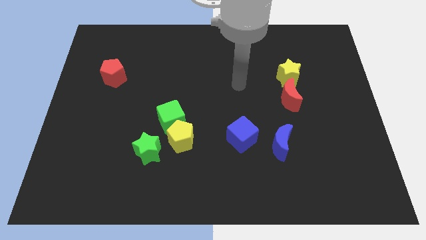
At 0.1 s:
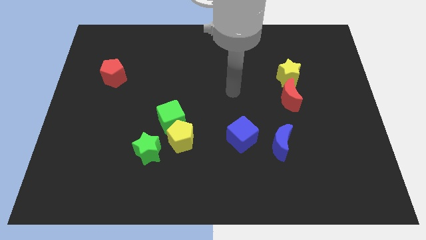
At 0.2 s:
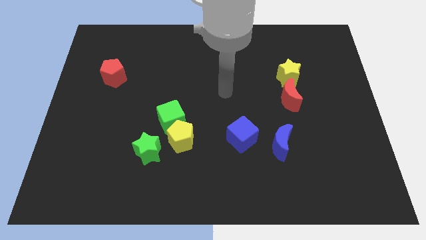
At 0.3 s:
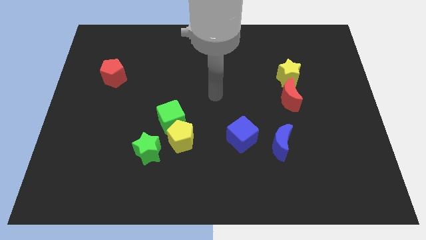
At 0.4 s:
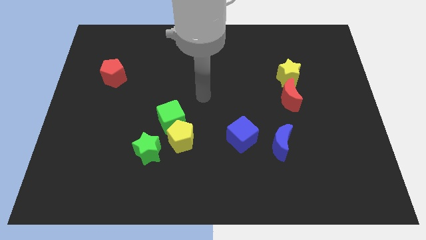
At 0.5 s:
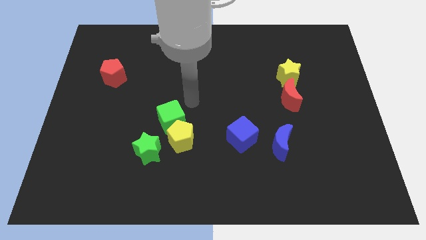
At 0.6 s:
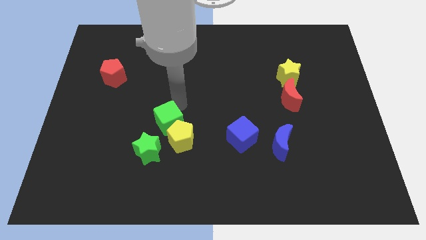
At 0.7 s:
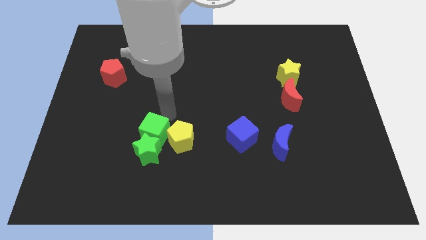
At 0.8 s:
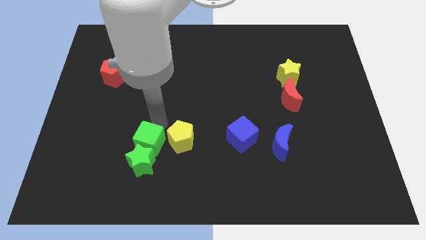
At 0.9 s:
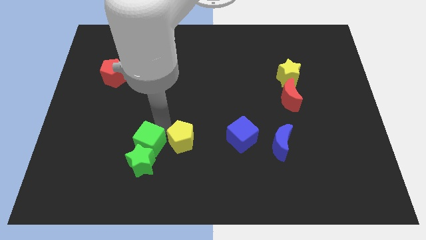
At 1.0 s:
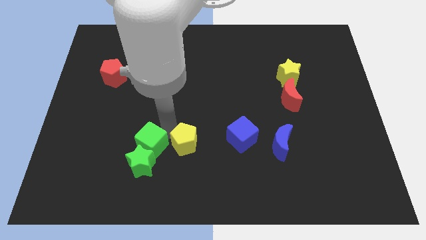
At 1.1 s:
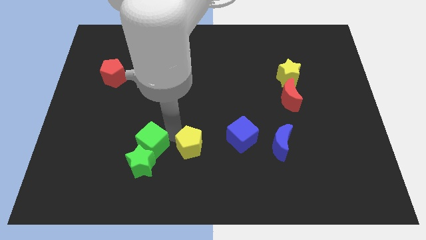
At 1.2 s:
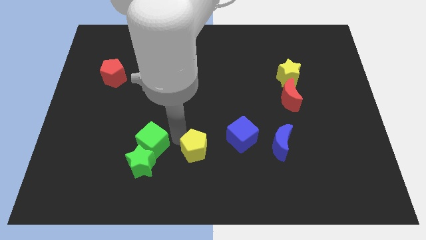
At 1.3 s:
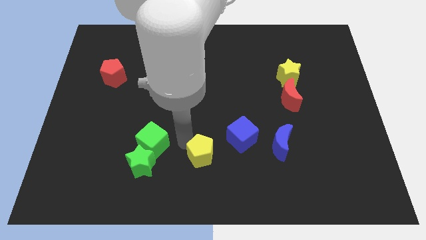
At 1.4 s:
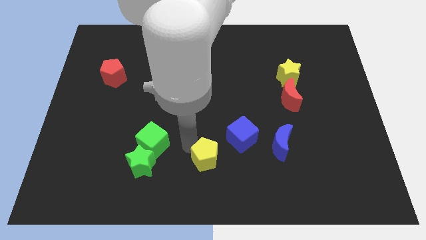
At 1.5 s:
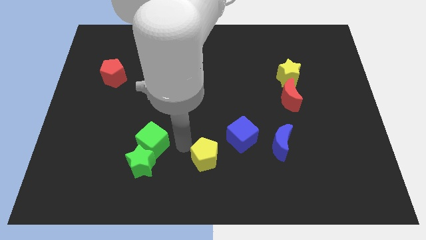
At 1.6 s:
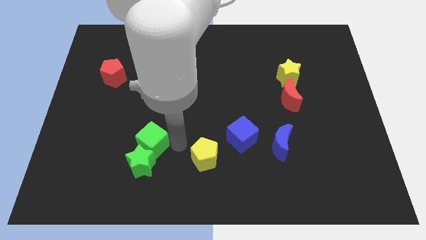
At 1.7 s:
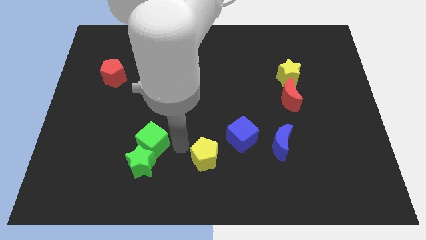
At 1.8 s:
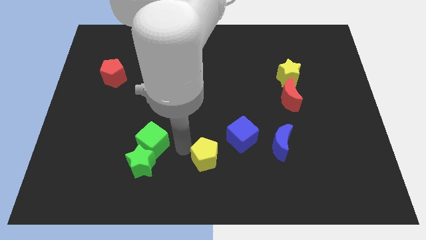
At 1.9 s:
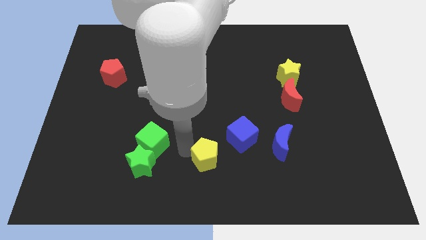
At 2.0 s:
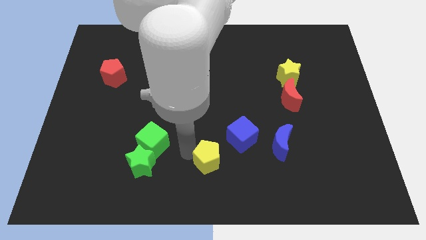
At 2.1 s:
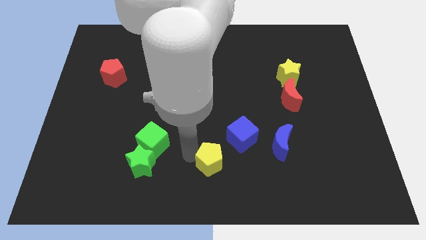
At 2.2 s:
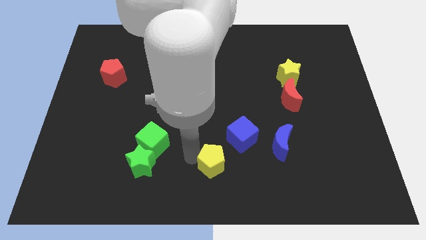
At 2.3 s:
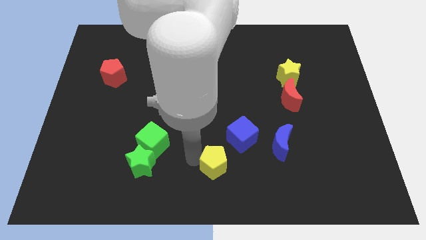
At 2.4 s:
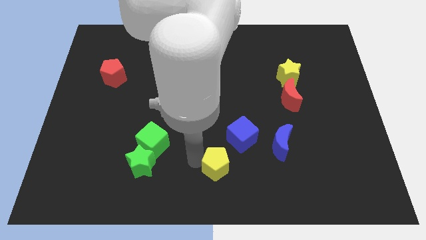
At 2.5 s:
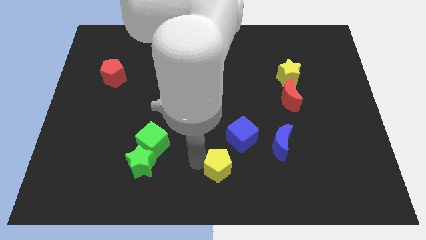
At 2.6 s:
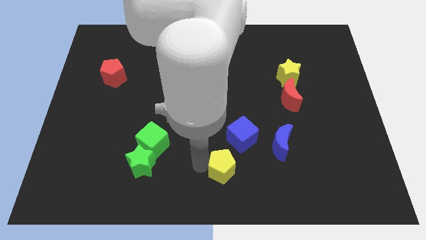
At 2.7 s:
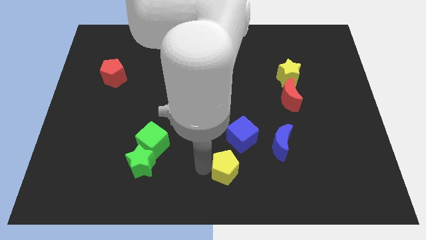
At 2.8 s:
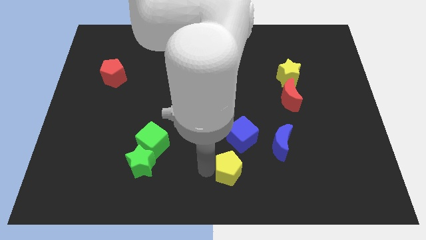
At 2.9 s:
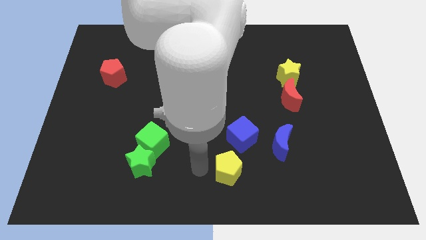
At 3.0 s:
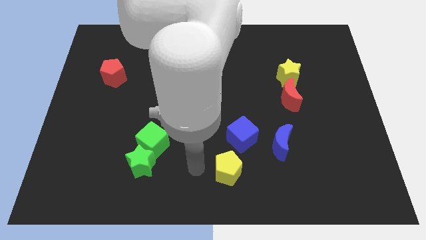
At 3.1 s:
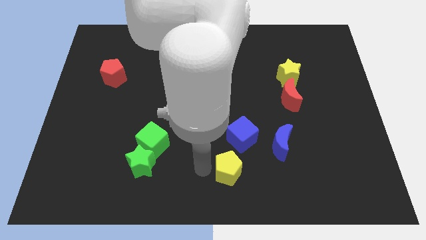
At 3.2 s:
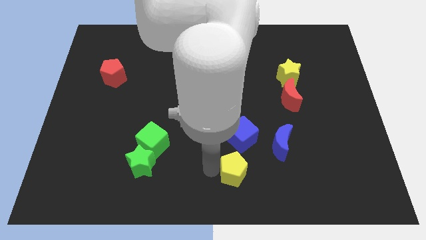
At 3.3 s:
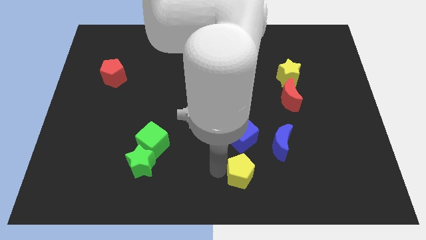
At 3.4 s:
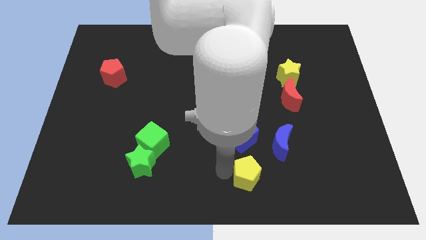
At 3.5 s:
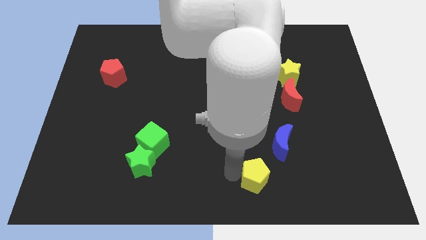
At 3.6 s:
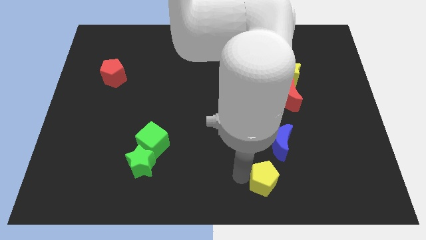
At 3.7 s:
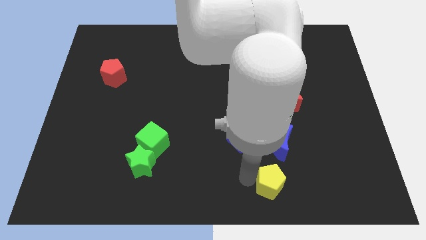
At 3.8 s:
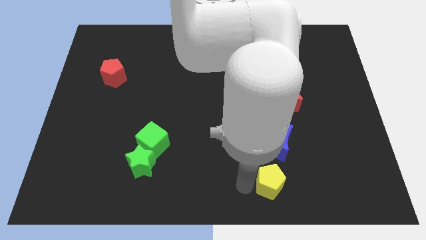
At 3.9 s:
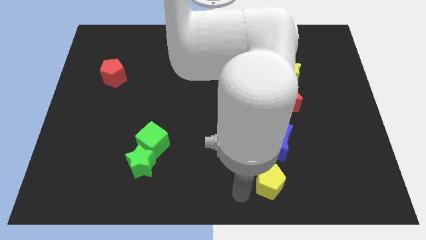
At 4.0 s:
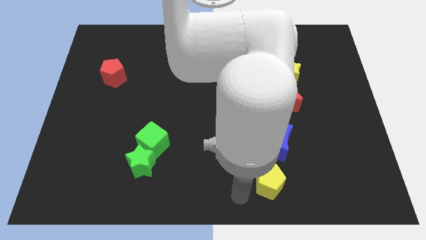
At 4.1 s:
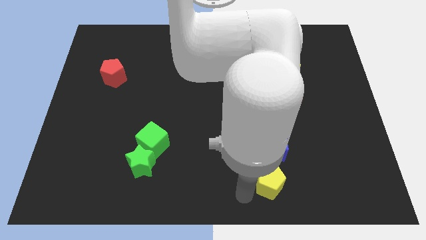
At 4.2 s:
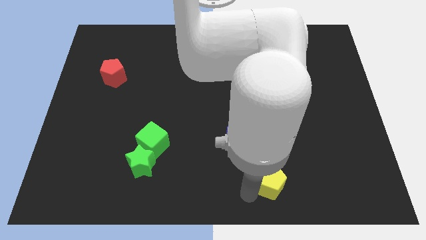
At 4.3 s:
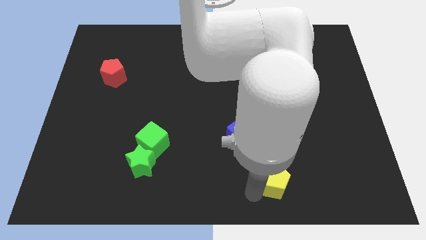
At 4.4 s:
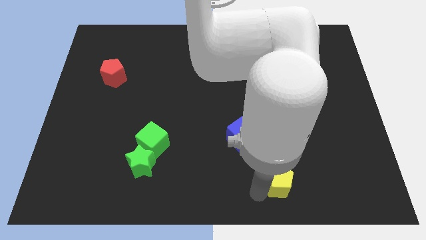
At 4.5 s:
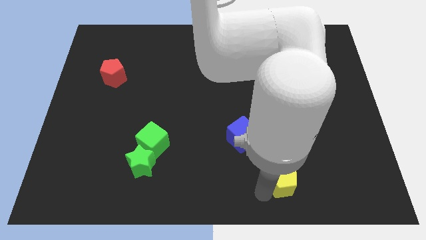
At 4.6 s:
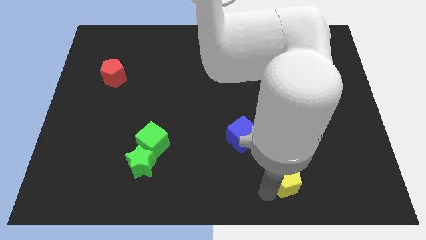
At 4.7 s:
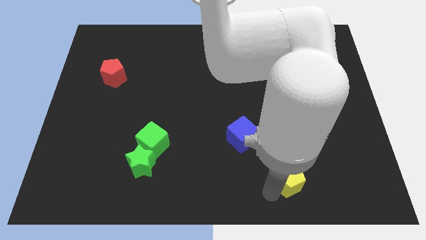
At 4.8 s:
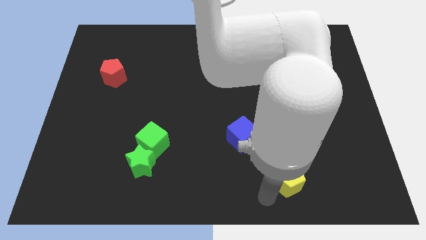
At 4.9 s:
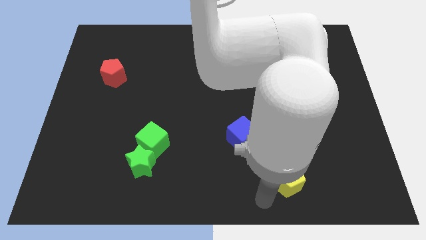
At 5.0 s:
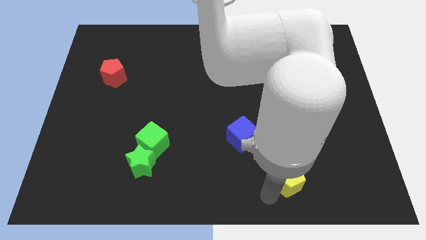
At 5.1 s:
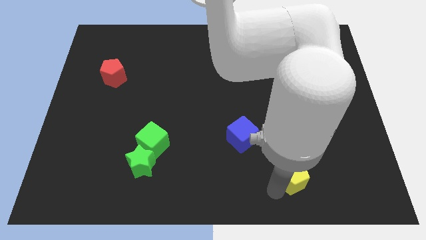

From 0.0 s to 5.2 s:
put the yellow pentagon to the bottom right of the blue moon

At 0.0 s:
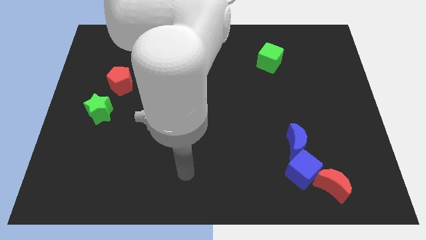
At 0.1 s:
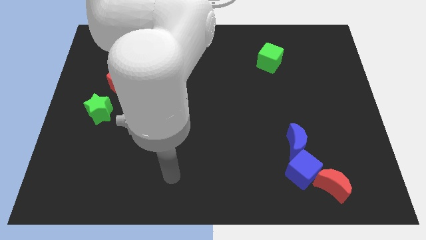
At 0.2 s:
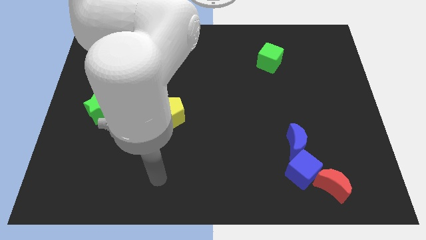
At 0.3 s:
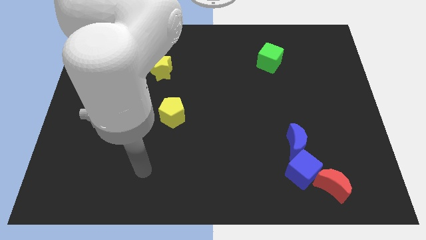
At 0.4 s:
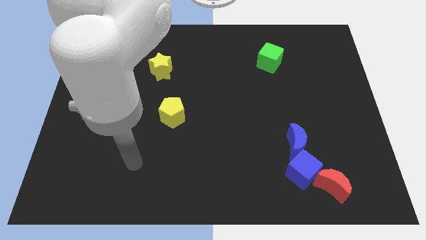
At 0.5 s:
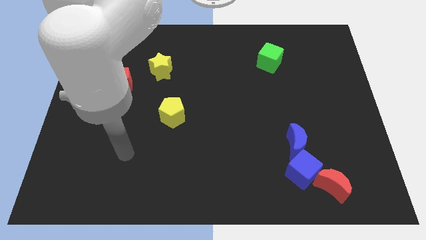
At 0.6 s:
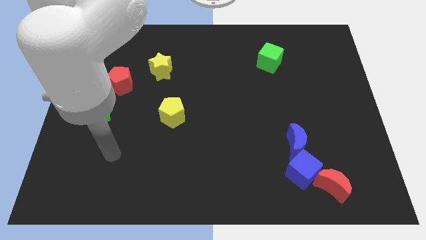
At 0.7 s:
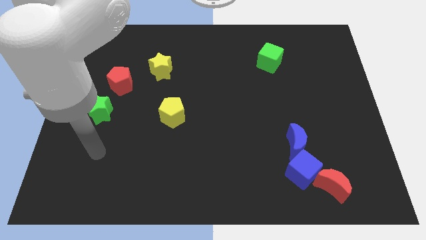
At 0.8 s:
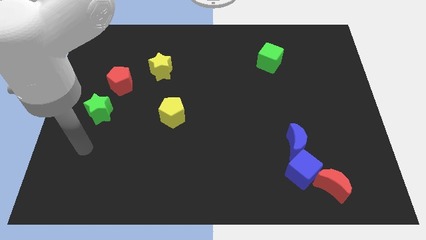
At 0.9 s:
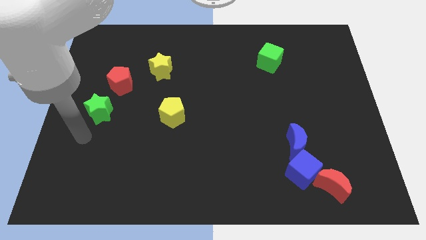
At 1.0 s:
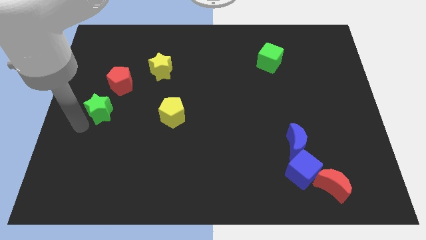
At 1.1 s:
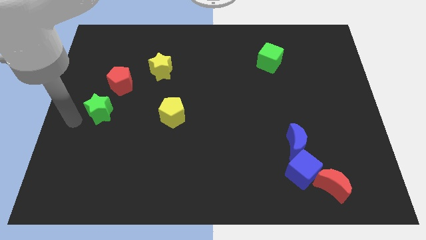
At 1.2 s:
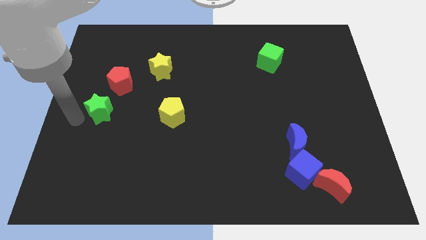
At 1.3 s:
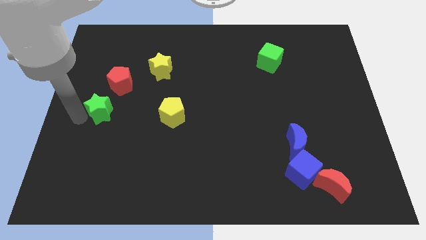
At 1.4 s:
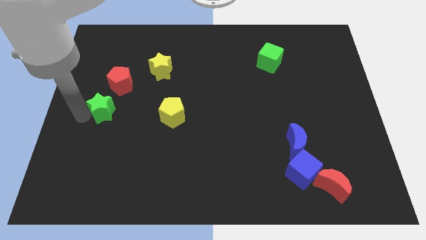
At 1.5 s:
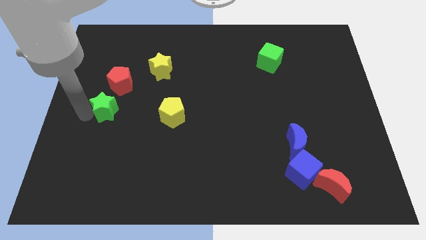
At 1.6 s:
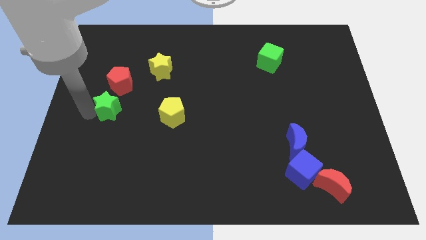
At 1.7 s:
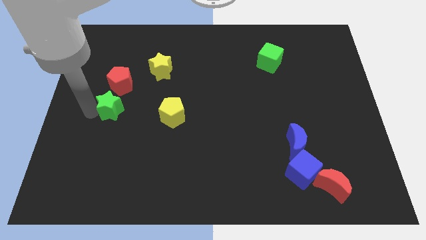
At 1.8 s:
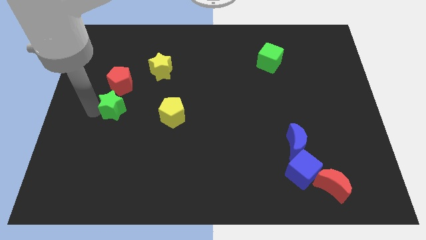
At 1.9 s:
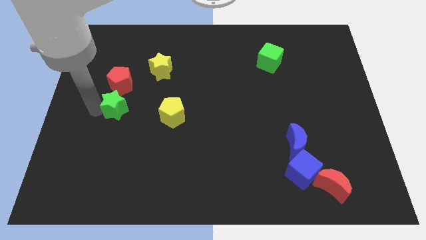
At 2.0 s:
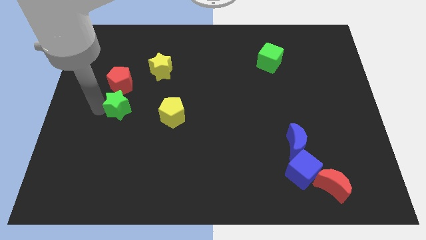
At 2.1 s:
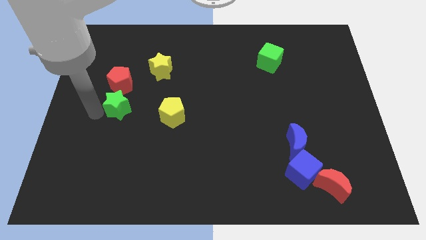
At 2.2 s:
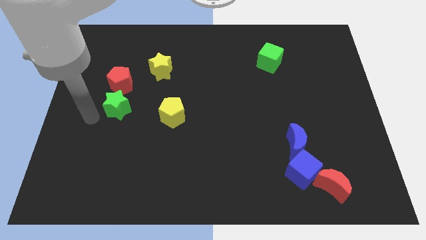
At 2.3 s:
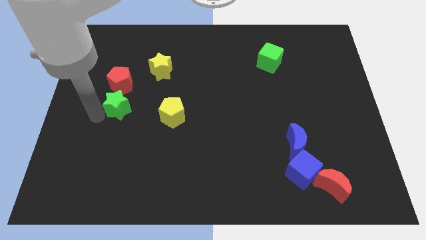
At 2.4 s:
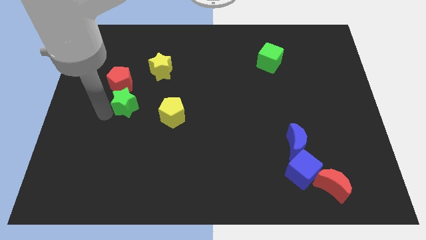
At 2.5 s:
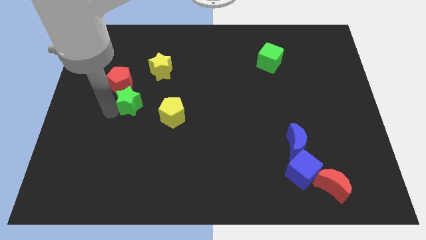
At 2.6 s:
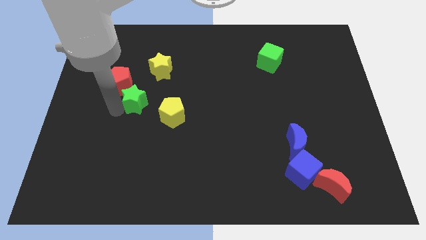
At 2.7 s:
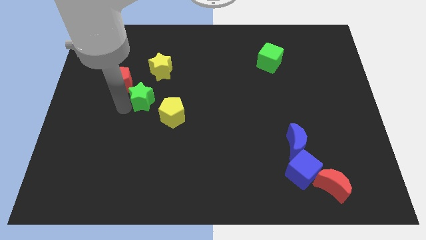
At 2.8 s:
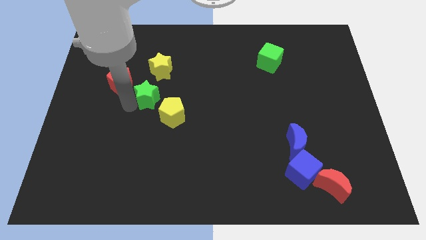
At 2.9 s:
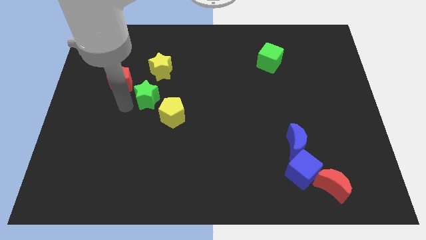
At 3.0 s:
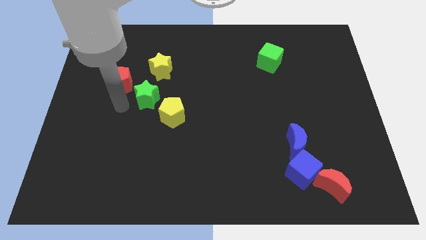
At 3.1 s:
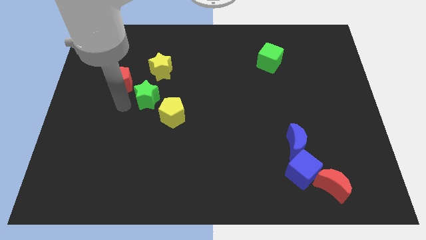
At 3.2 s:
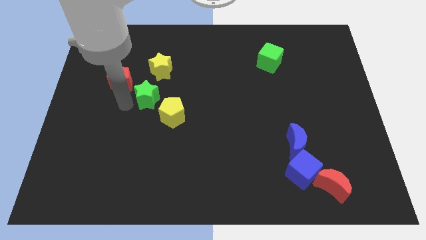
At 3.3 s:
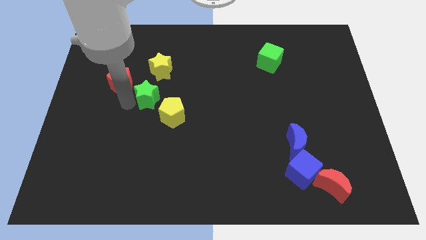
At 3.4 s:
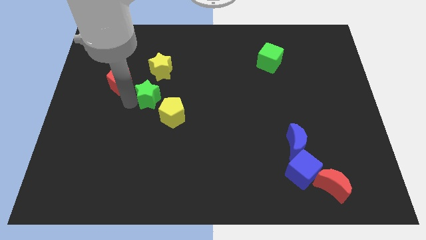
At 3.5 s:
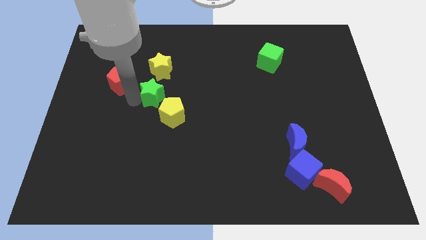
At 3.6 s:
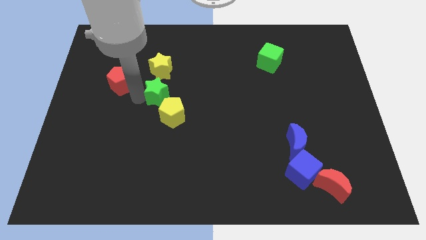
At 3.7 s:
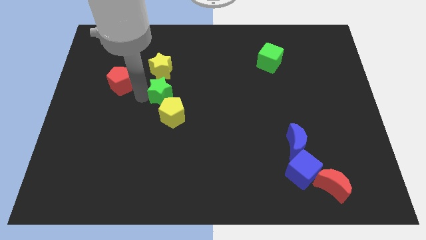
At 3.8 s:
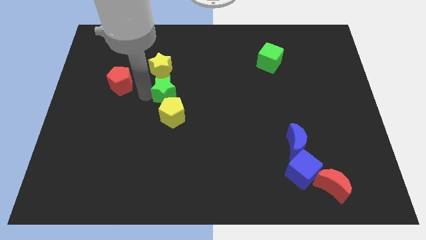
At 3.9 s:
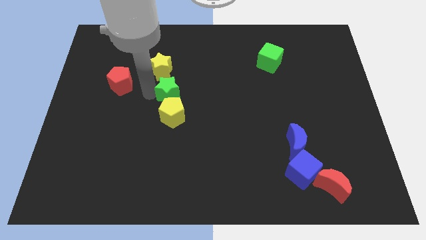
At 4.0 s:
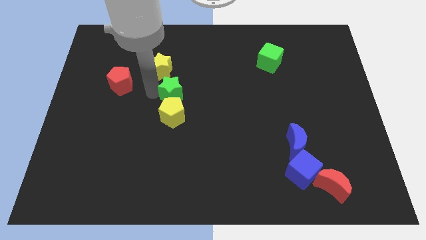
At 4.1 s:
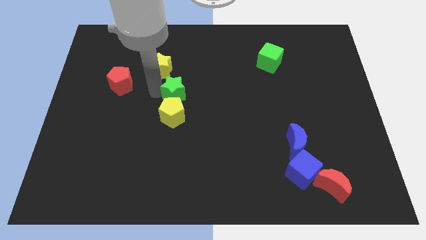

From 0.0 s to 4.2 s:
slide the green star to the top right of the yellow pentagon
